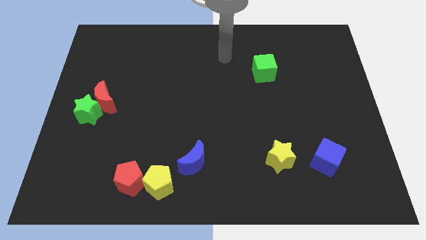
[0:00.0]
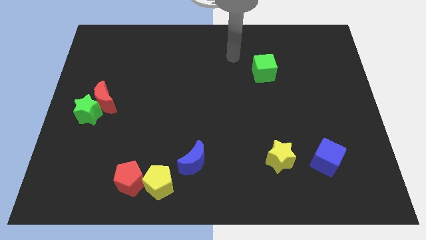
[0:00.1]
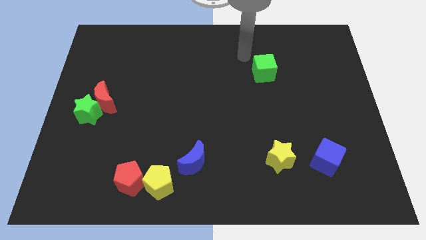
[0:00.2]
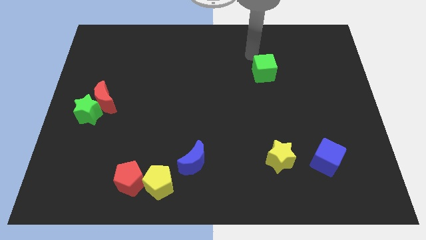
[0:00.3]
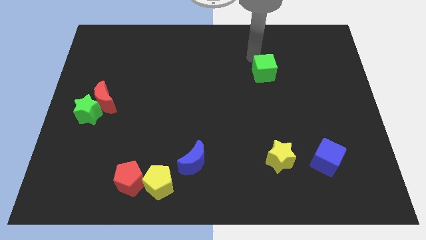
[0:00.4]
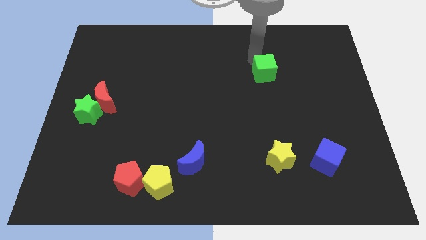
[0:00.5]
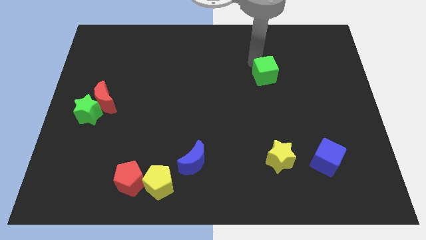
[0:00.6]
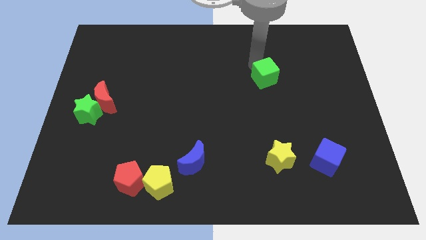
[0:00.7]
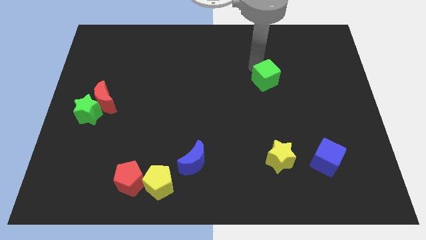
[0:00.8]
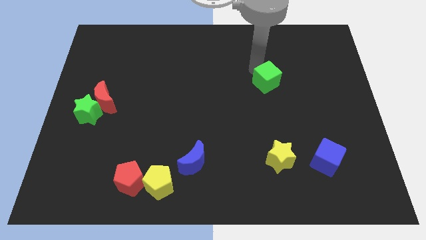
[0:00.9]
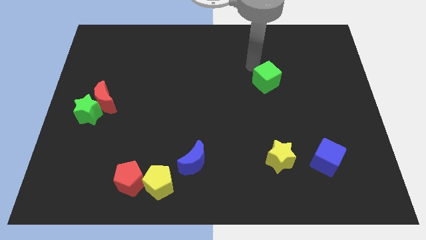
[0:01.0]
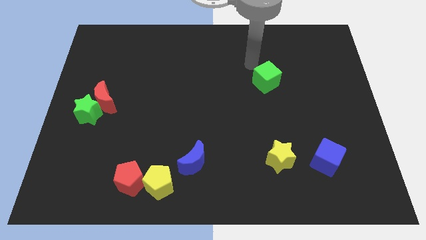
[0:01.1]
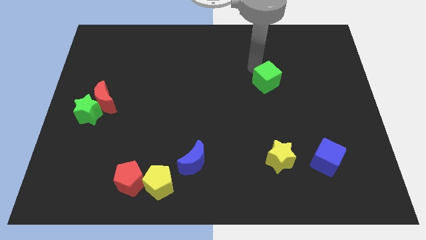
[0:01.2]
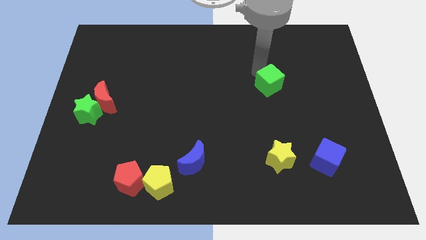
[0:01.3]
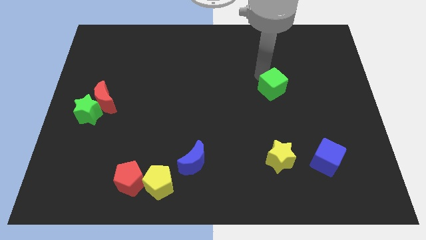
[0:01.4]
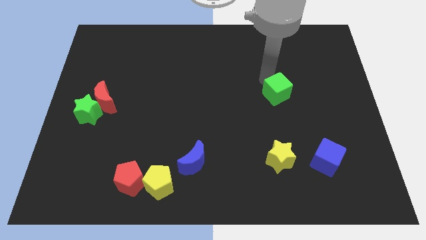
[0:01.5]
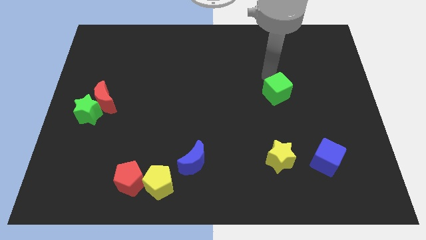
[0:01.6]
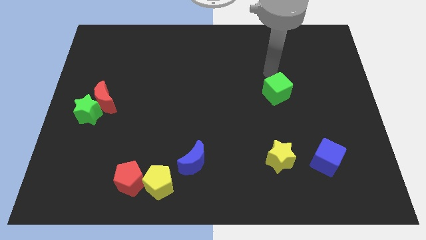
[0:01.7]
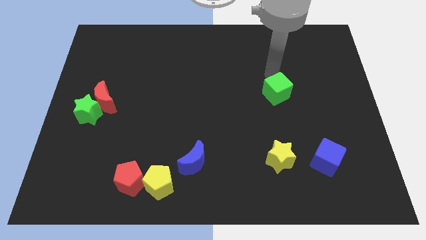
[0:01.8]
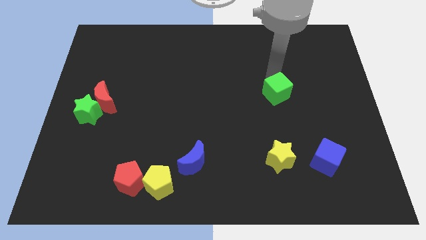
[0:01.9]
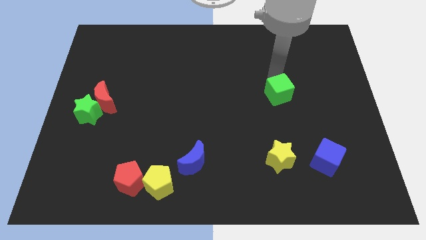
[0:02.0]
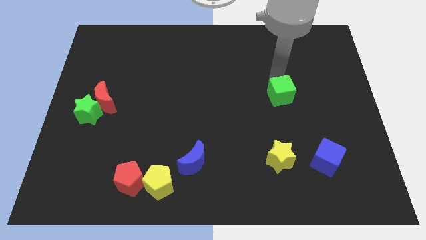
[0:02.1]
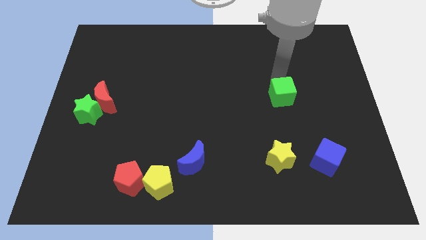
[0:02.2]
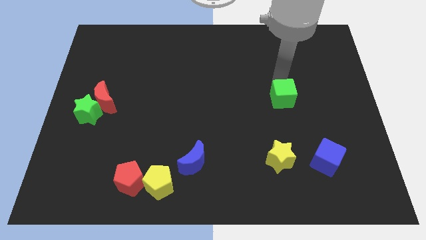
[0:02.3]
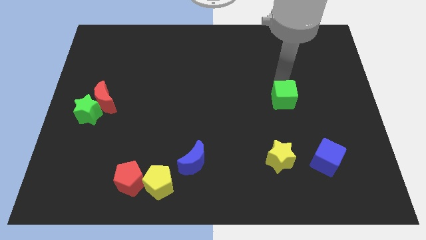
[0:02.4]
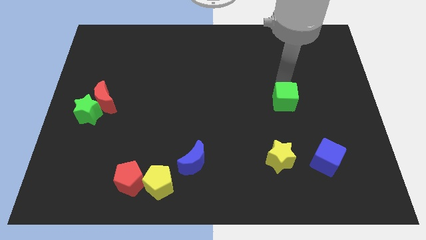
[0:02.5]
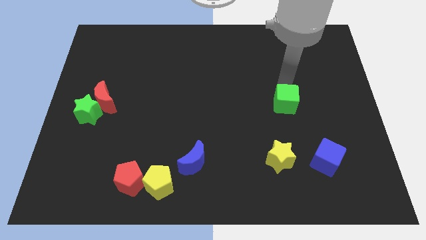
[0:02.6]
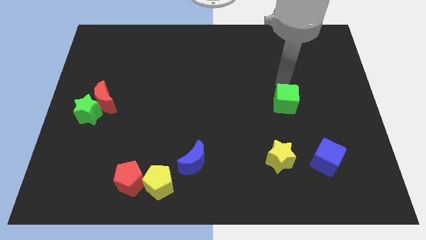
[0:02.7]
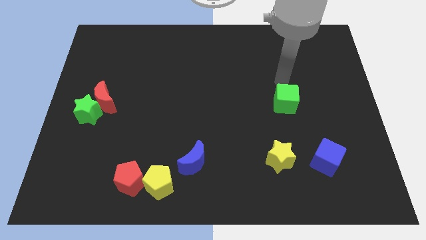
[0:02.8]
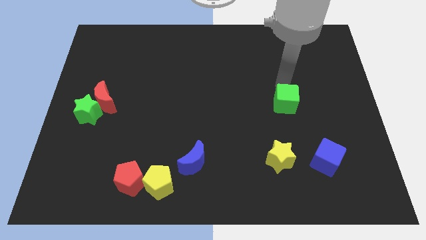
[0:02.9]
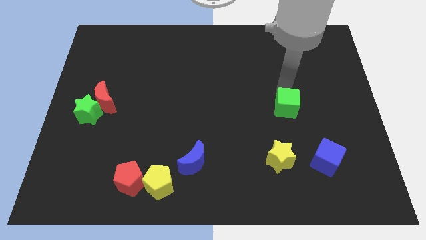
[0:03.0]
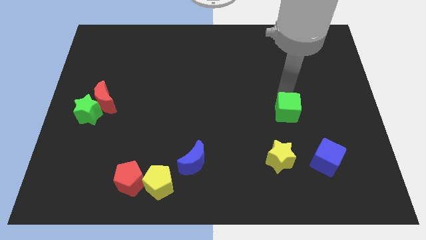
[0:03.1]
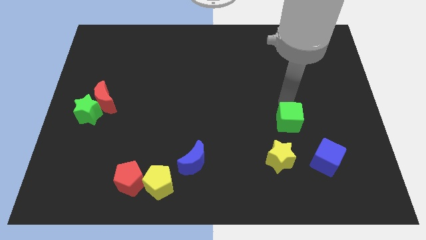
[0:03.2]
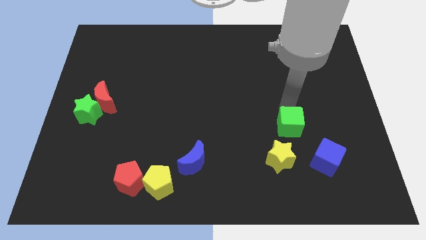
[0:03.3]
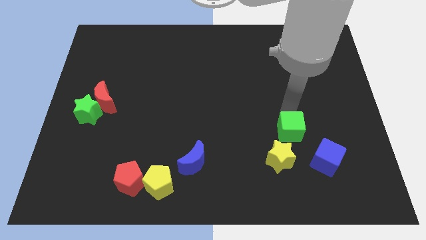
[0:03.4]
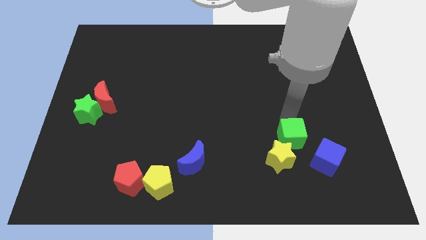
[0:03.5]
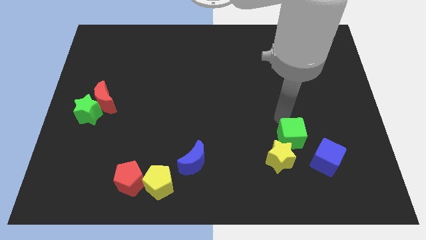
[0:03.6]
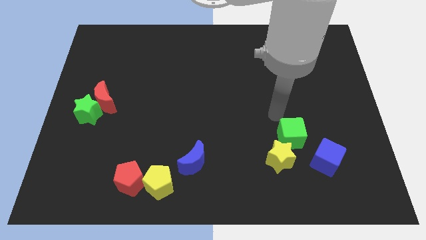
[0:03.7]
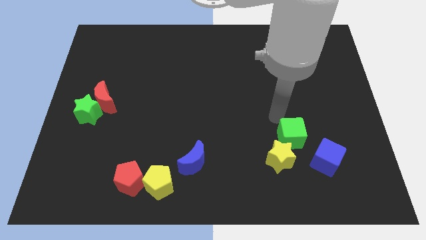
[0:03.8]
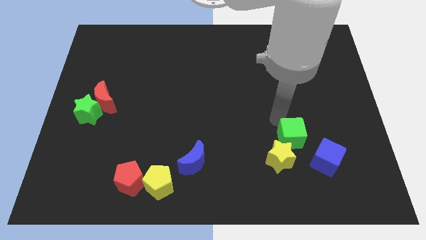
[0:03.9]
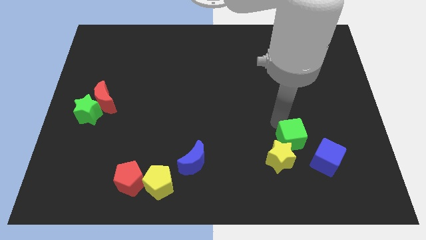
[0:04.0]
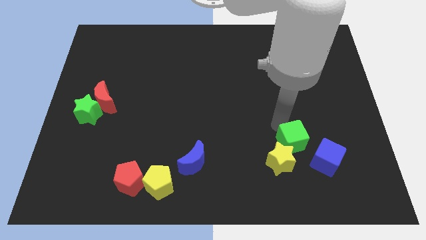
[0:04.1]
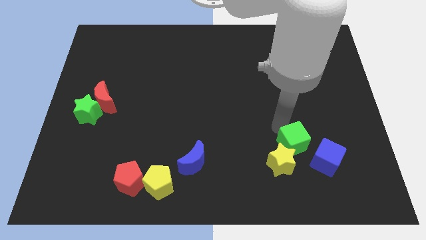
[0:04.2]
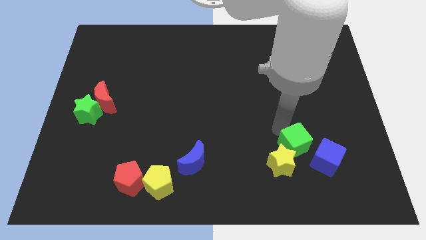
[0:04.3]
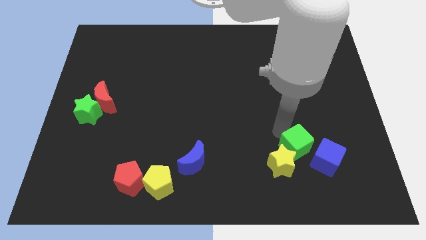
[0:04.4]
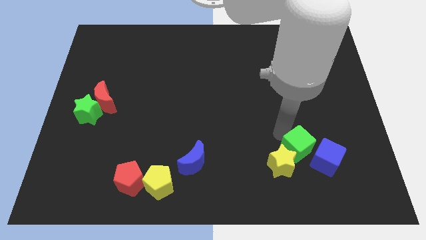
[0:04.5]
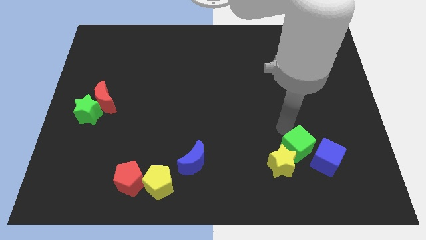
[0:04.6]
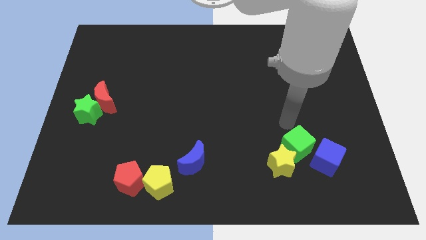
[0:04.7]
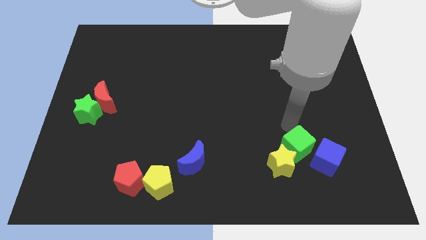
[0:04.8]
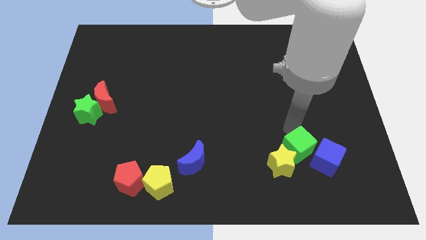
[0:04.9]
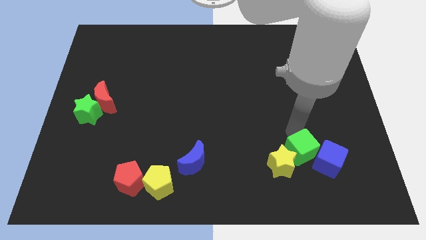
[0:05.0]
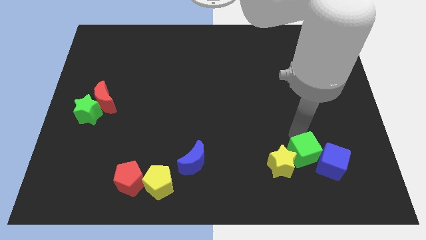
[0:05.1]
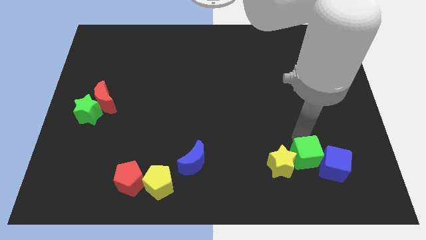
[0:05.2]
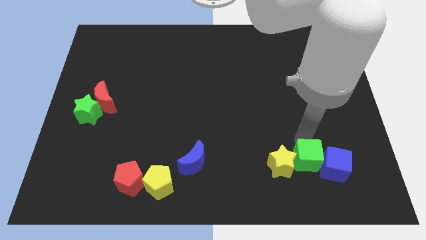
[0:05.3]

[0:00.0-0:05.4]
push the green cube to the bottom right side of the yellow star

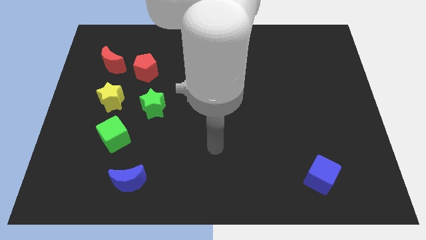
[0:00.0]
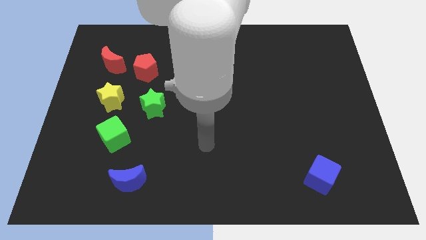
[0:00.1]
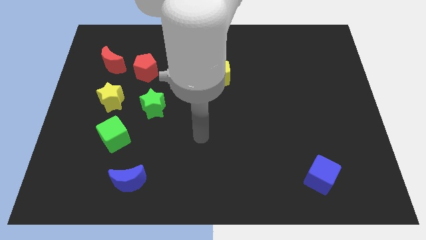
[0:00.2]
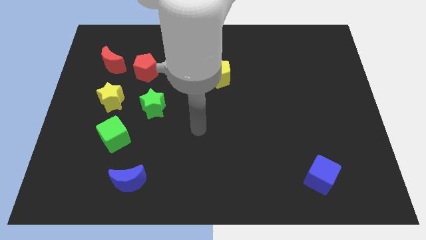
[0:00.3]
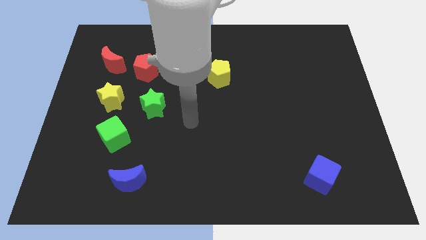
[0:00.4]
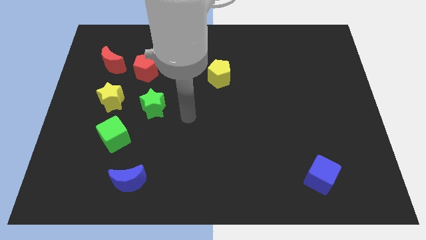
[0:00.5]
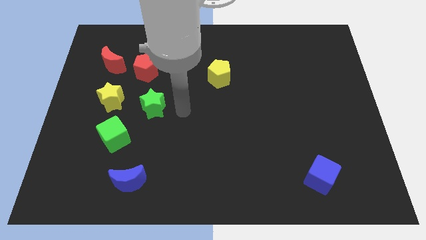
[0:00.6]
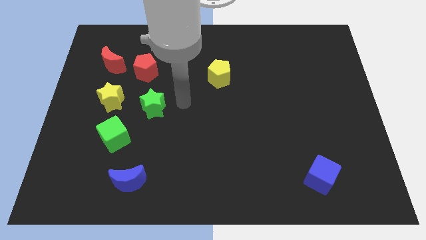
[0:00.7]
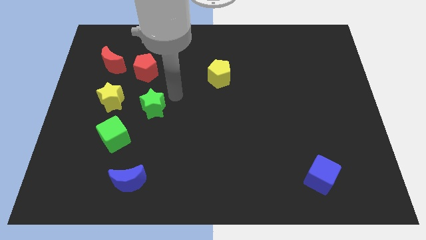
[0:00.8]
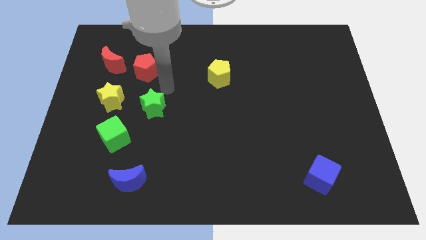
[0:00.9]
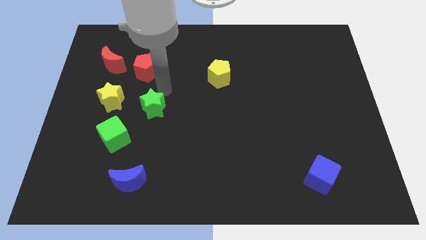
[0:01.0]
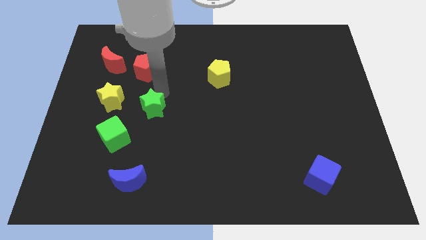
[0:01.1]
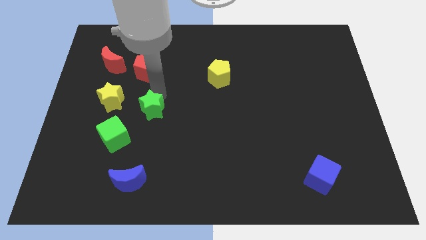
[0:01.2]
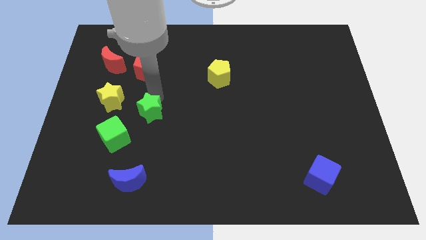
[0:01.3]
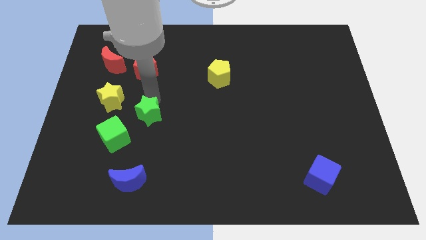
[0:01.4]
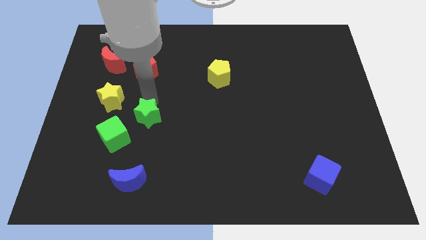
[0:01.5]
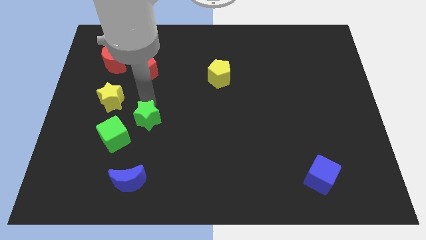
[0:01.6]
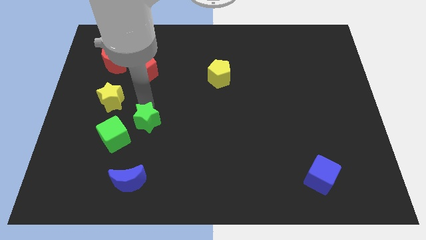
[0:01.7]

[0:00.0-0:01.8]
slide the green star to the top of the blue moon

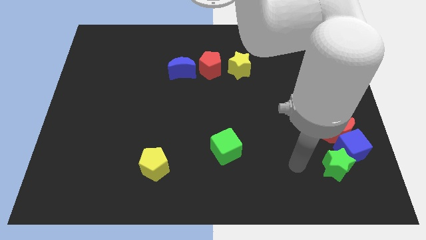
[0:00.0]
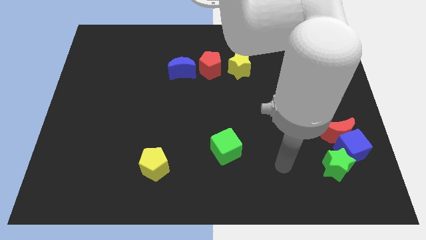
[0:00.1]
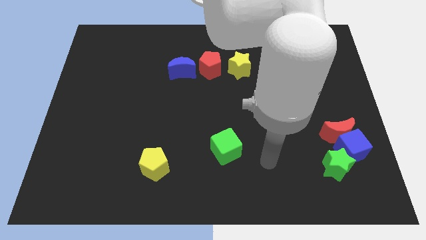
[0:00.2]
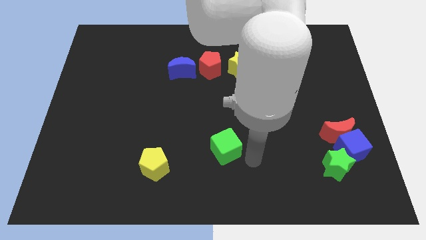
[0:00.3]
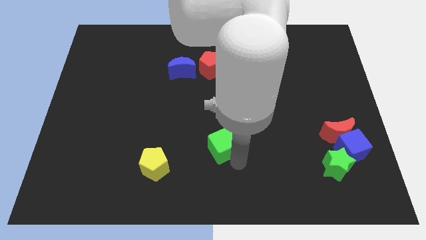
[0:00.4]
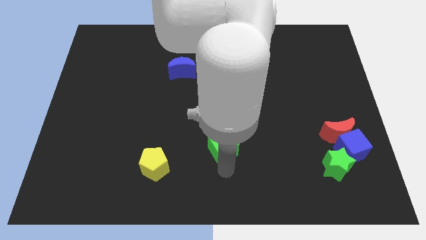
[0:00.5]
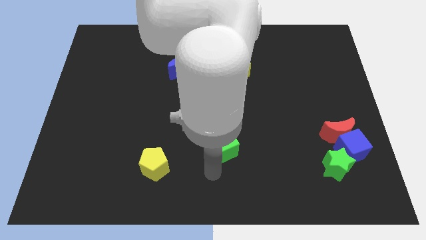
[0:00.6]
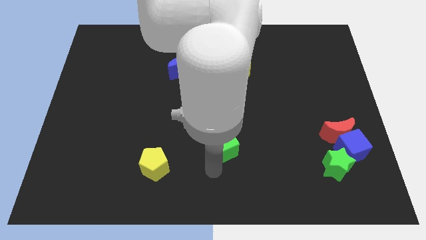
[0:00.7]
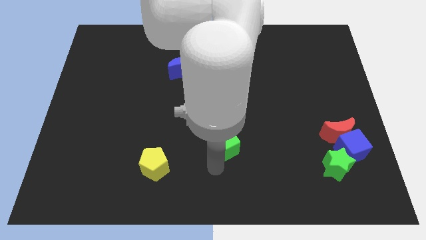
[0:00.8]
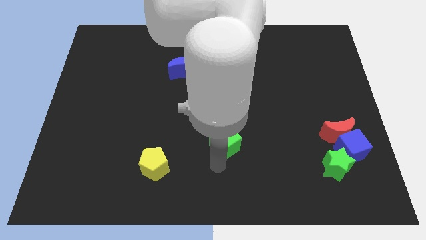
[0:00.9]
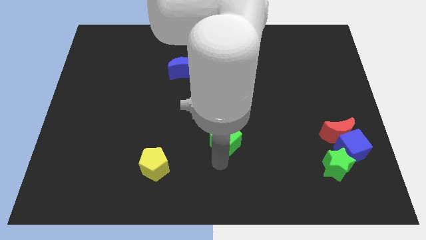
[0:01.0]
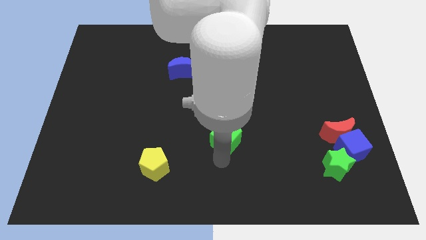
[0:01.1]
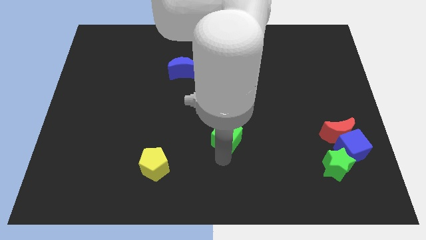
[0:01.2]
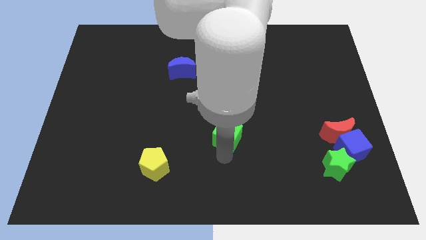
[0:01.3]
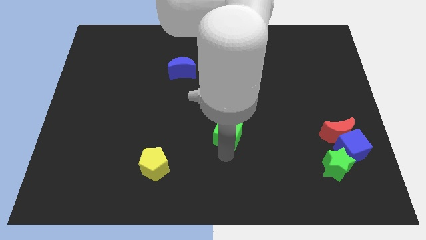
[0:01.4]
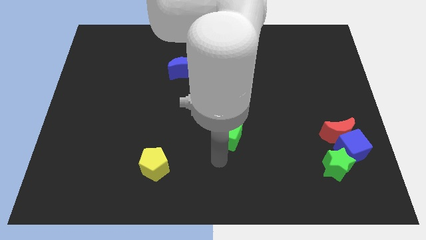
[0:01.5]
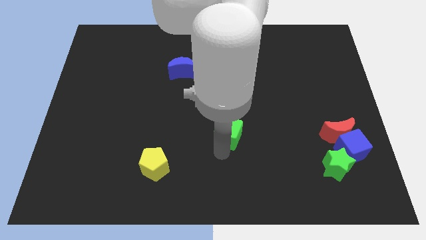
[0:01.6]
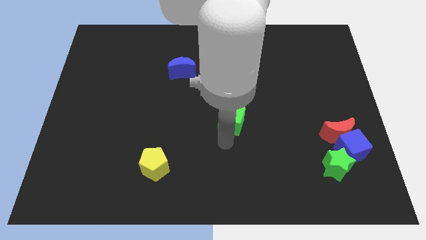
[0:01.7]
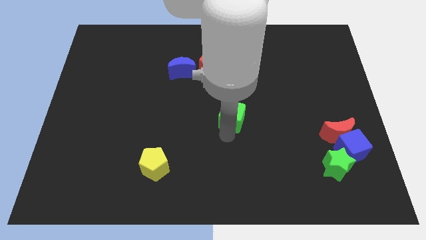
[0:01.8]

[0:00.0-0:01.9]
put the green cube to the bottom of the yellow star
